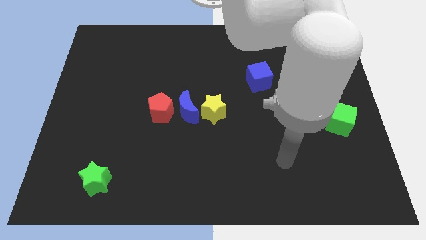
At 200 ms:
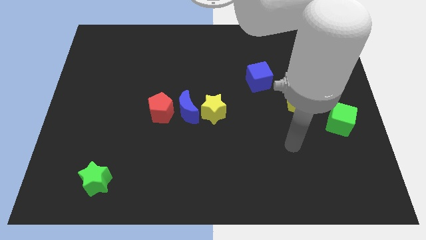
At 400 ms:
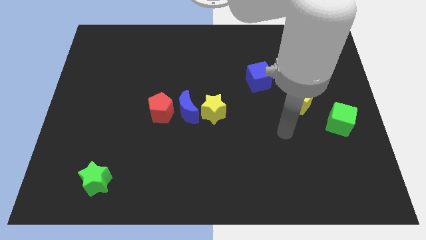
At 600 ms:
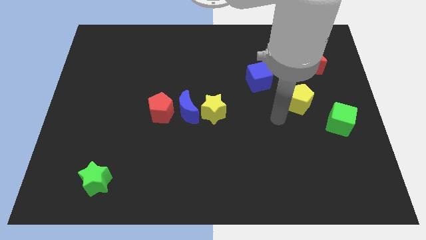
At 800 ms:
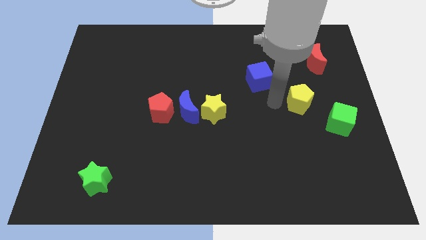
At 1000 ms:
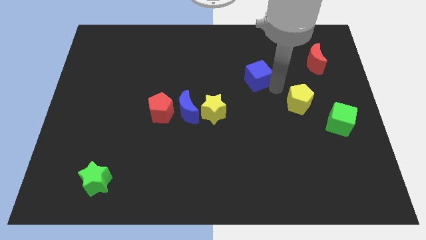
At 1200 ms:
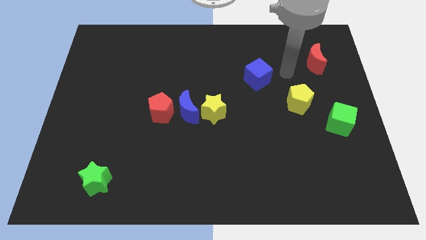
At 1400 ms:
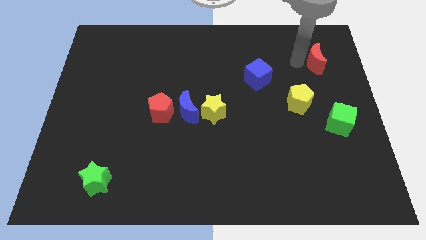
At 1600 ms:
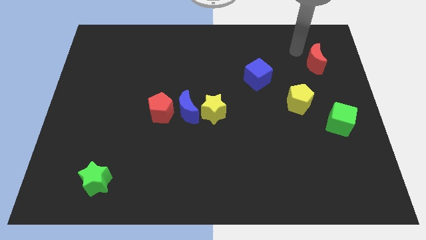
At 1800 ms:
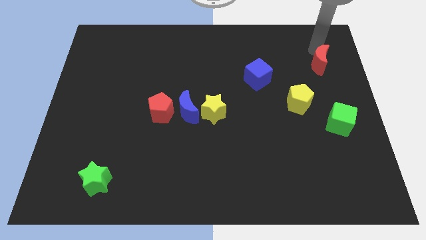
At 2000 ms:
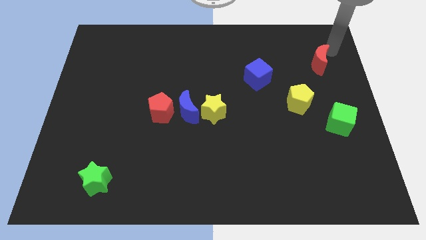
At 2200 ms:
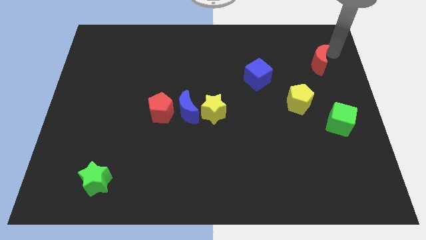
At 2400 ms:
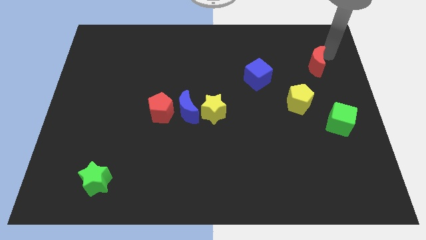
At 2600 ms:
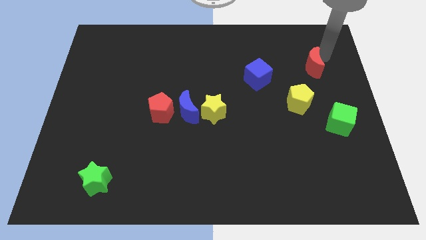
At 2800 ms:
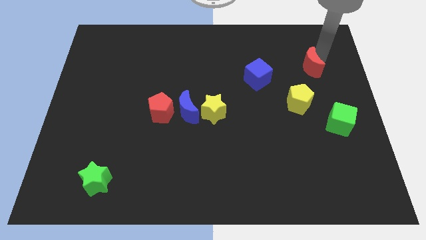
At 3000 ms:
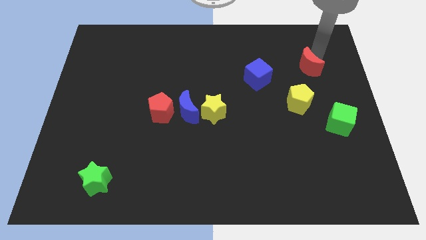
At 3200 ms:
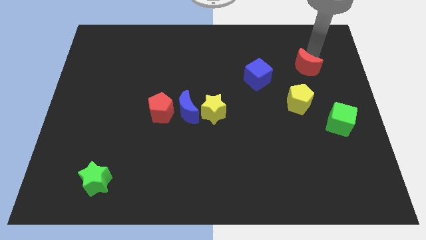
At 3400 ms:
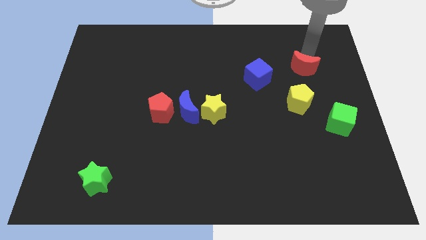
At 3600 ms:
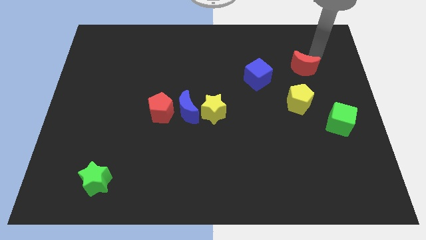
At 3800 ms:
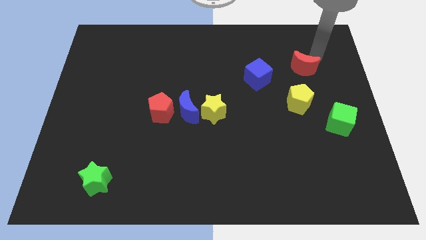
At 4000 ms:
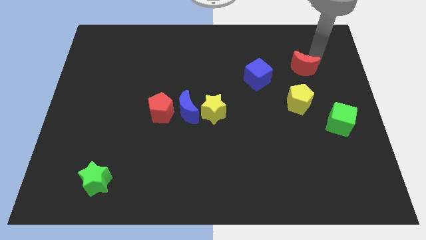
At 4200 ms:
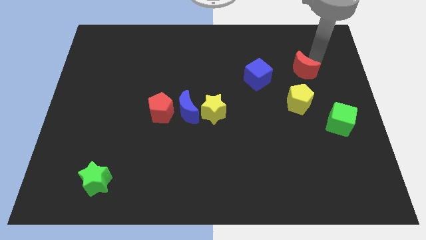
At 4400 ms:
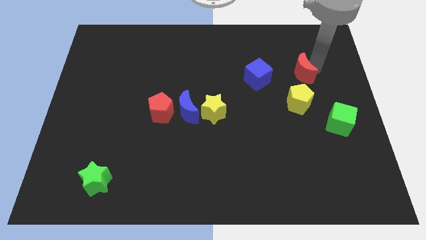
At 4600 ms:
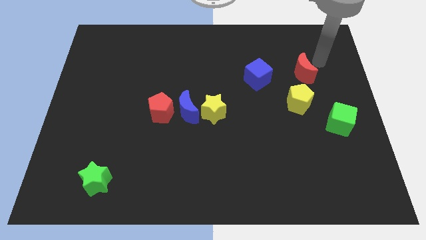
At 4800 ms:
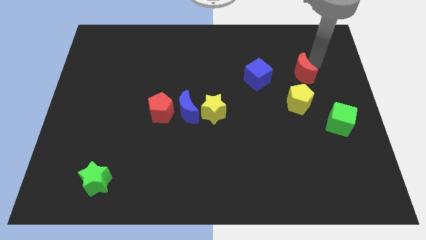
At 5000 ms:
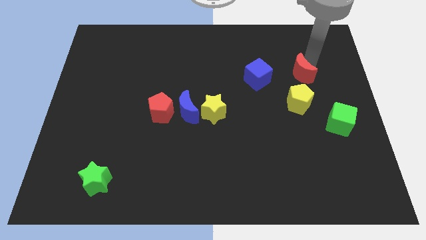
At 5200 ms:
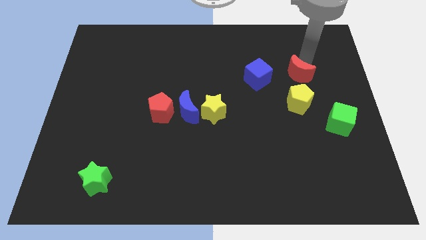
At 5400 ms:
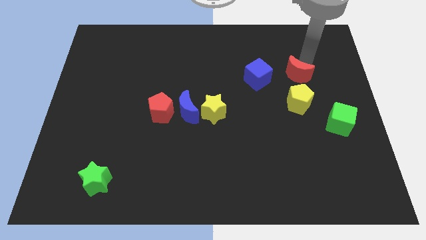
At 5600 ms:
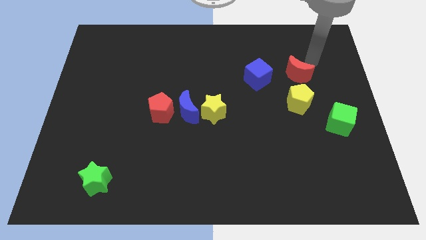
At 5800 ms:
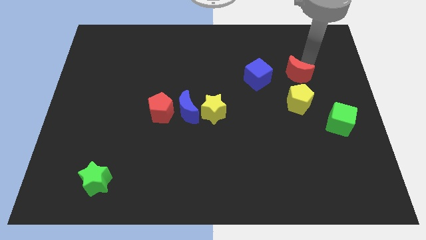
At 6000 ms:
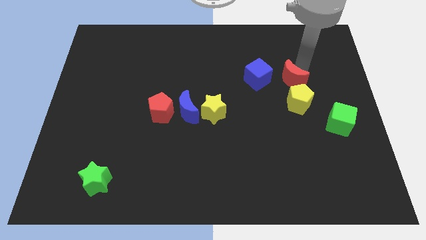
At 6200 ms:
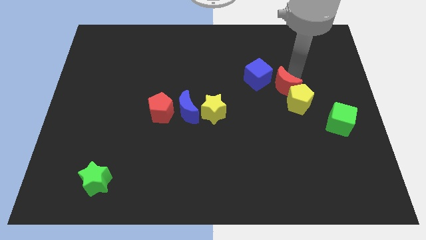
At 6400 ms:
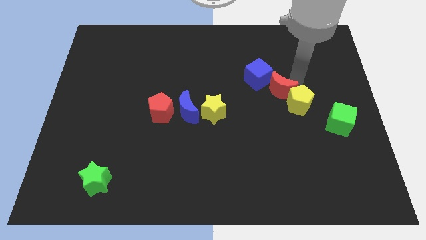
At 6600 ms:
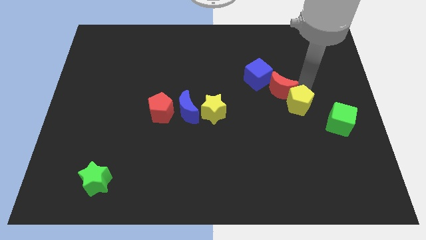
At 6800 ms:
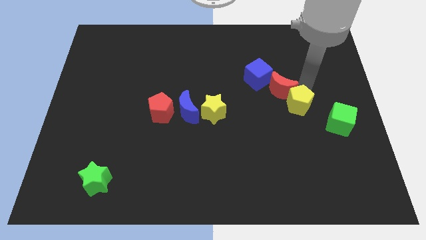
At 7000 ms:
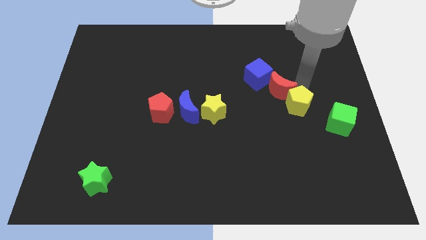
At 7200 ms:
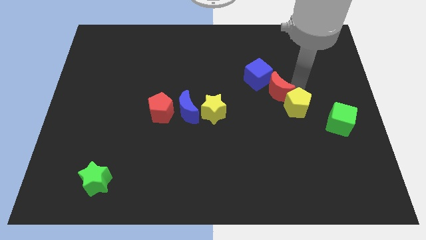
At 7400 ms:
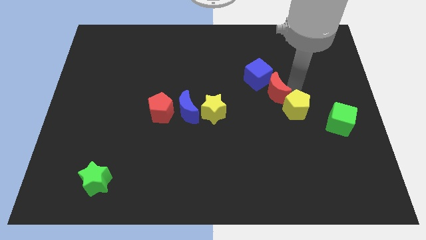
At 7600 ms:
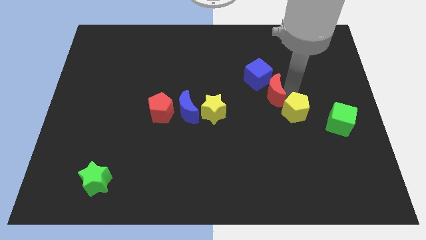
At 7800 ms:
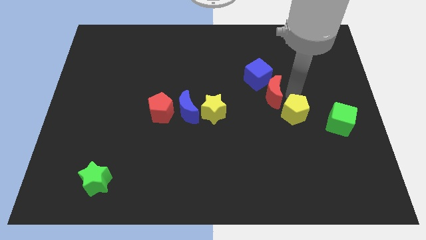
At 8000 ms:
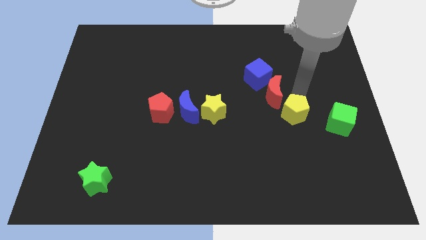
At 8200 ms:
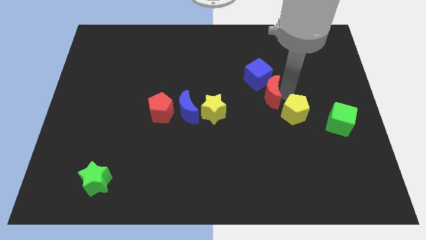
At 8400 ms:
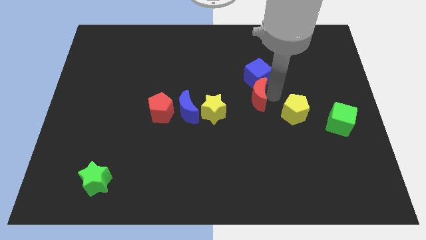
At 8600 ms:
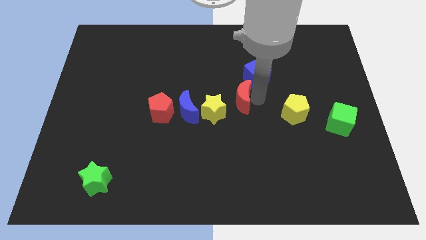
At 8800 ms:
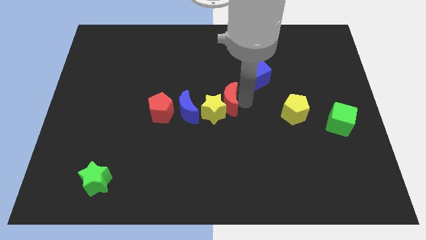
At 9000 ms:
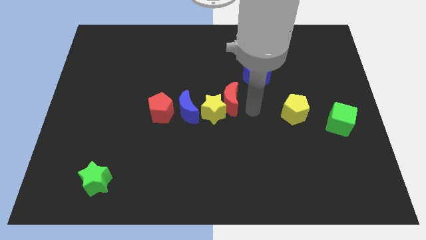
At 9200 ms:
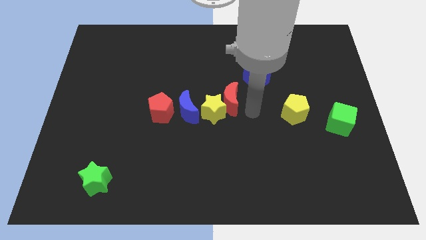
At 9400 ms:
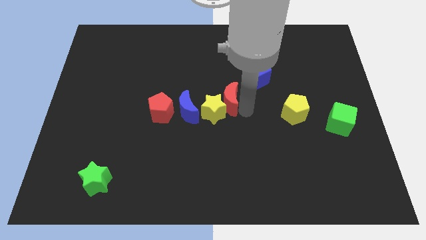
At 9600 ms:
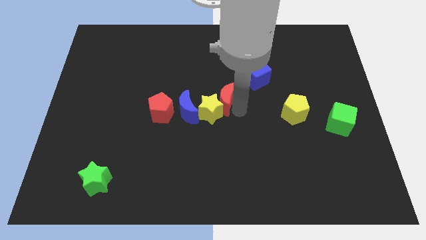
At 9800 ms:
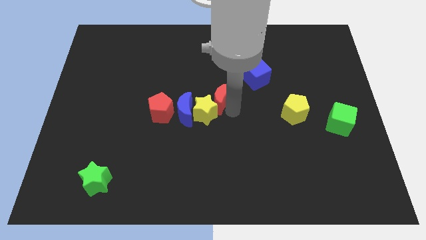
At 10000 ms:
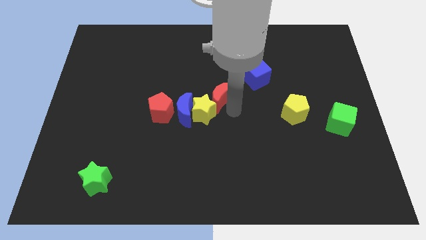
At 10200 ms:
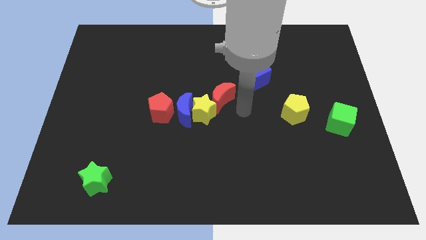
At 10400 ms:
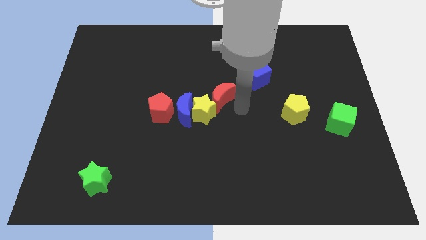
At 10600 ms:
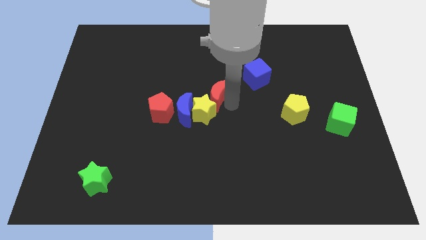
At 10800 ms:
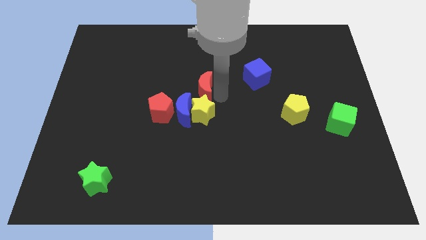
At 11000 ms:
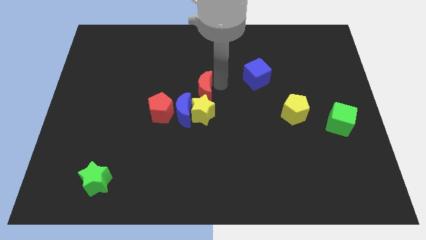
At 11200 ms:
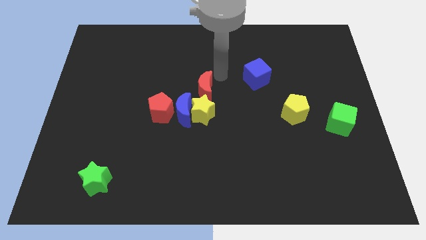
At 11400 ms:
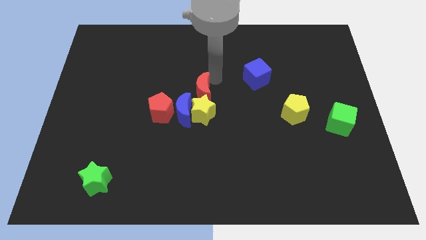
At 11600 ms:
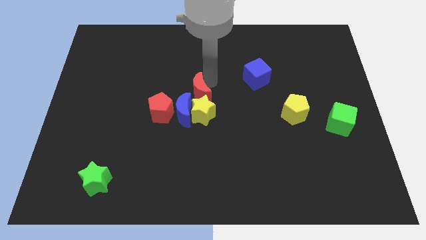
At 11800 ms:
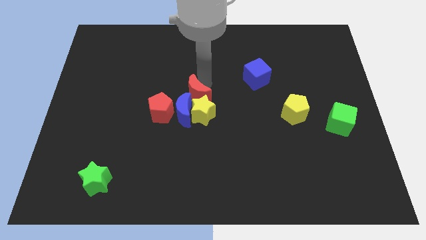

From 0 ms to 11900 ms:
slide the red moon towards the blue moon

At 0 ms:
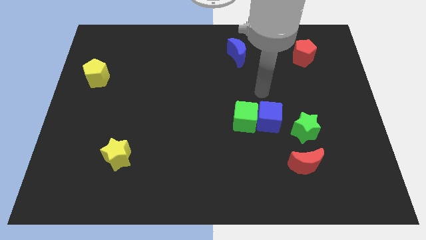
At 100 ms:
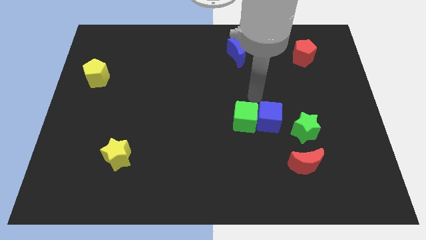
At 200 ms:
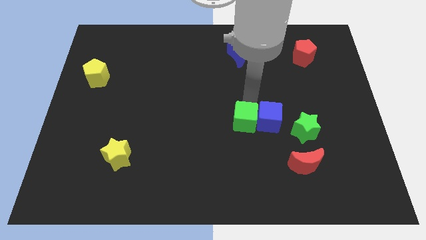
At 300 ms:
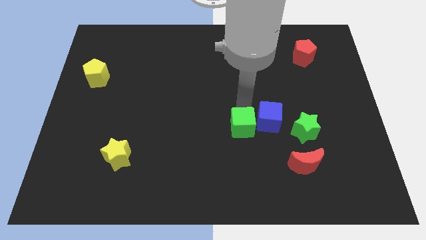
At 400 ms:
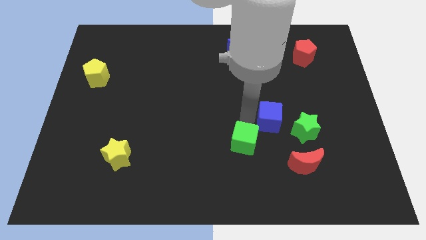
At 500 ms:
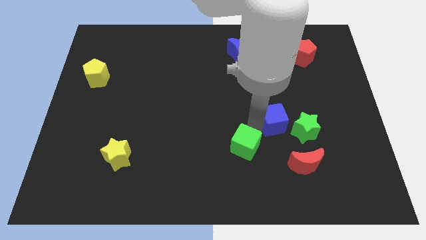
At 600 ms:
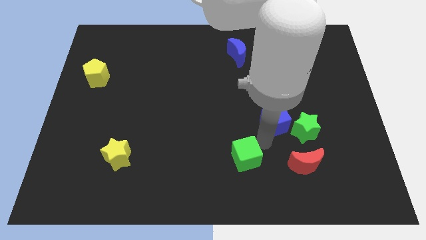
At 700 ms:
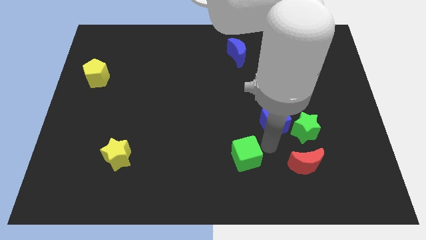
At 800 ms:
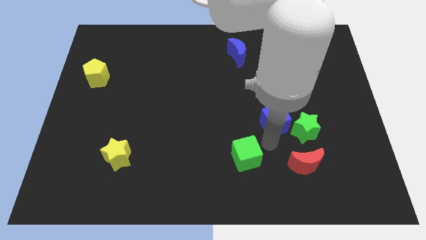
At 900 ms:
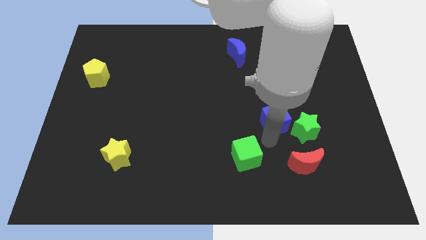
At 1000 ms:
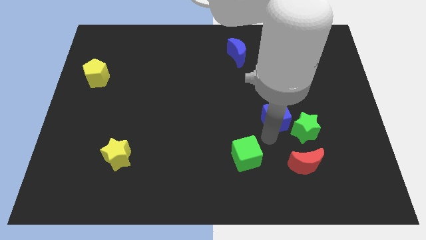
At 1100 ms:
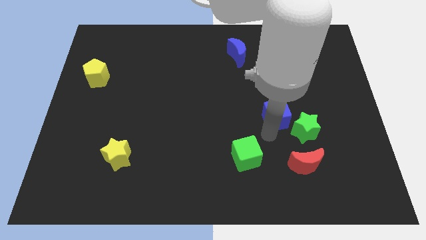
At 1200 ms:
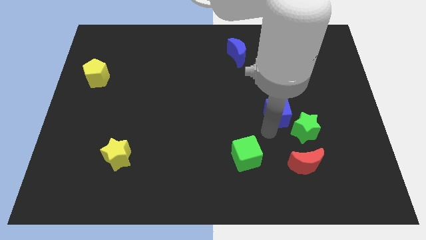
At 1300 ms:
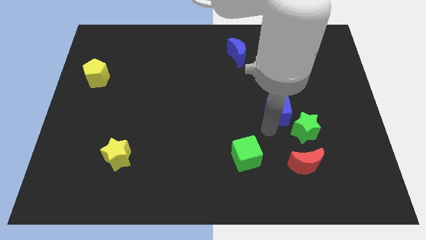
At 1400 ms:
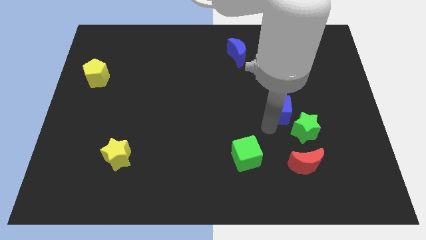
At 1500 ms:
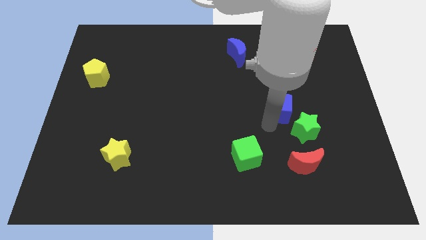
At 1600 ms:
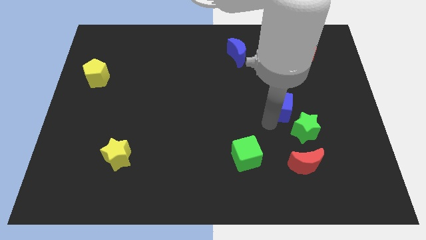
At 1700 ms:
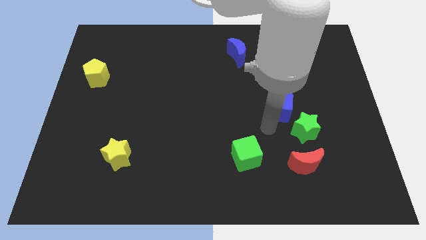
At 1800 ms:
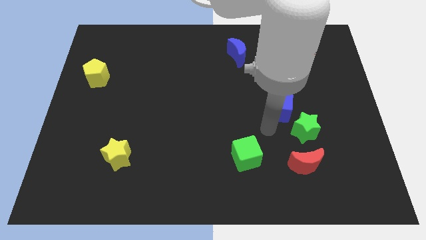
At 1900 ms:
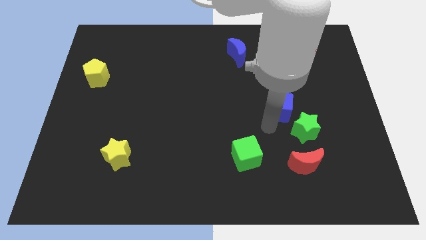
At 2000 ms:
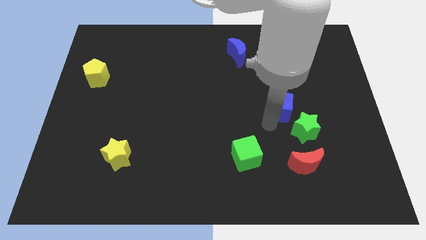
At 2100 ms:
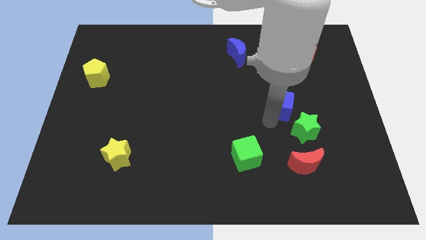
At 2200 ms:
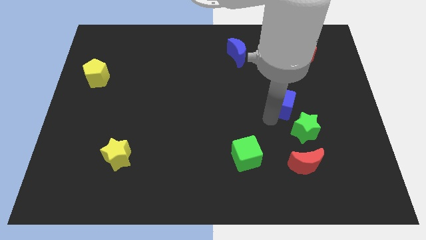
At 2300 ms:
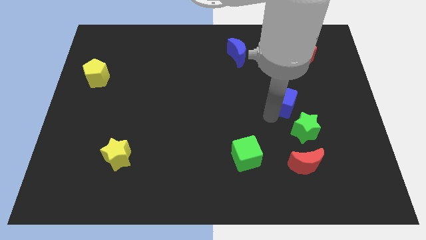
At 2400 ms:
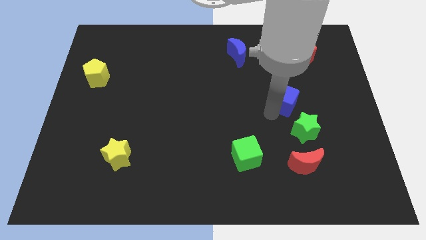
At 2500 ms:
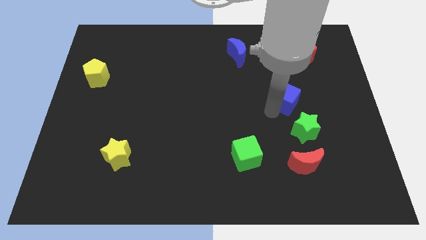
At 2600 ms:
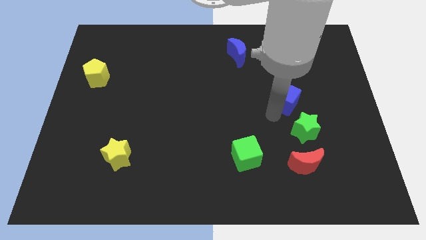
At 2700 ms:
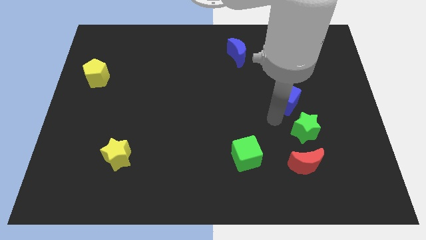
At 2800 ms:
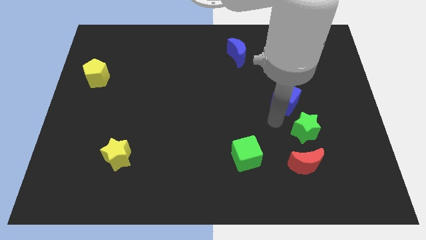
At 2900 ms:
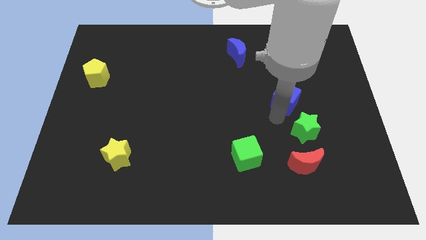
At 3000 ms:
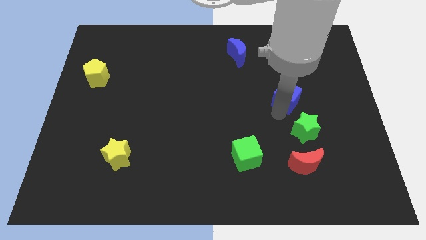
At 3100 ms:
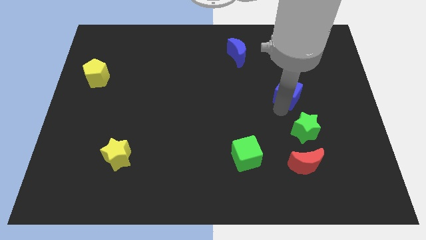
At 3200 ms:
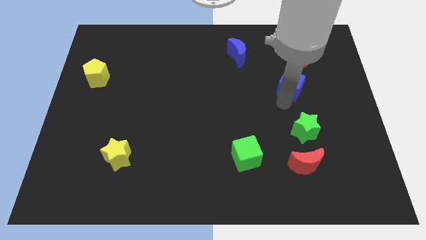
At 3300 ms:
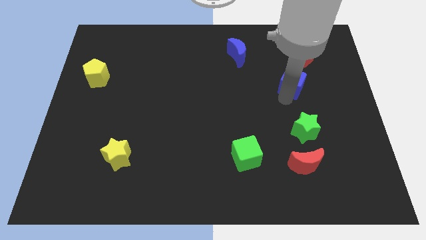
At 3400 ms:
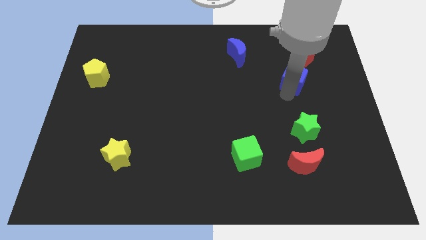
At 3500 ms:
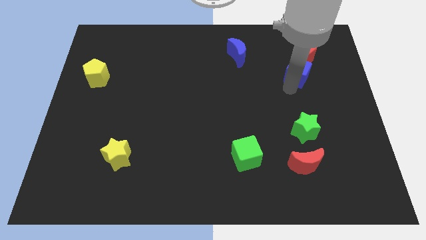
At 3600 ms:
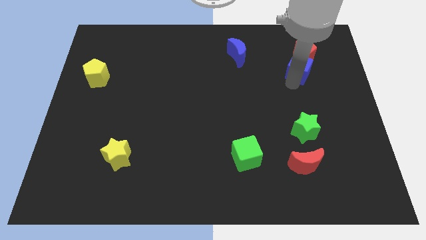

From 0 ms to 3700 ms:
slide the blue cube to the red pentagon
